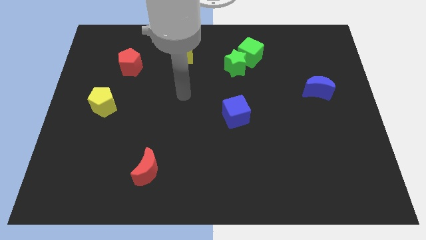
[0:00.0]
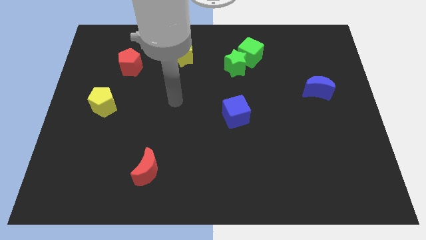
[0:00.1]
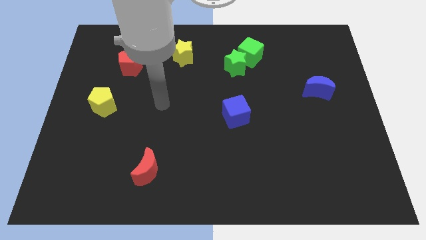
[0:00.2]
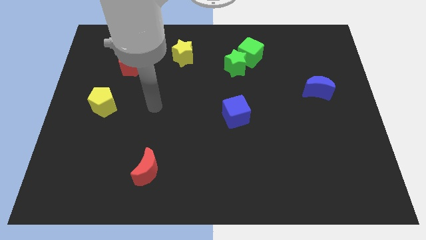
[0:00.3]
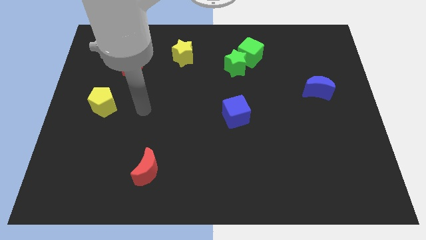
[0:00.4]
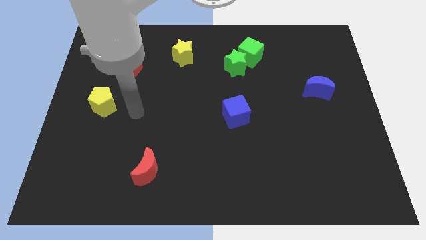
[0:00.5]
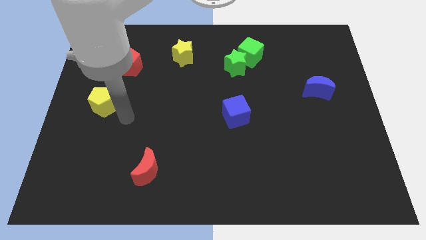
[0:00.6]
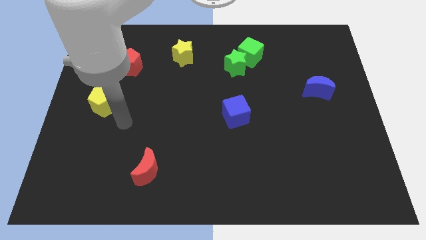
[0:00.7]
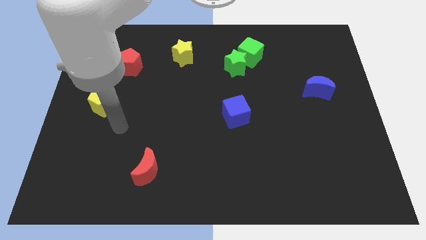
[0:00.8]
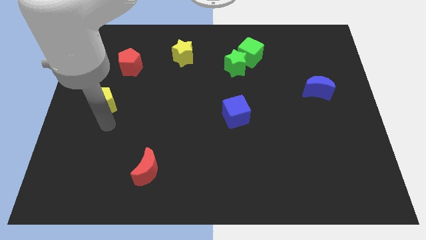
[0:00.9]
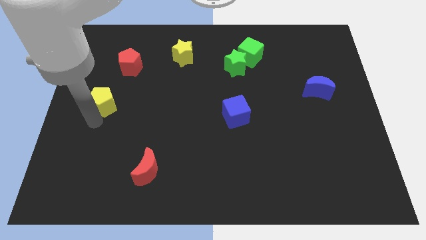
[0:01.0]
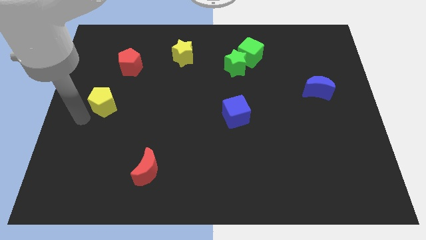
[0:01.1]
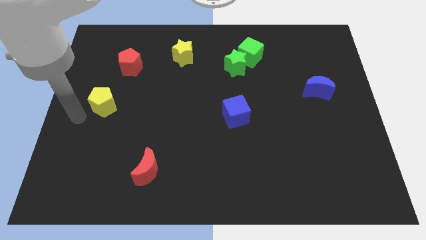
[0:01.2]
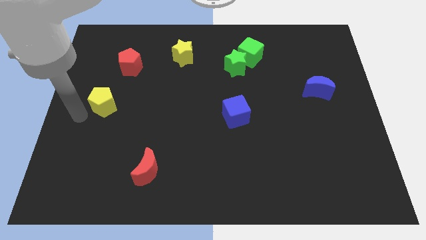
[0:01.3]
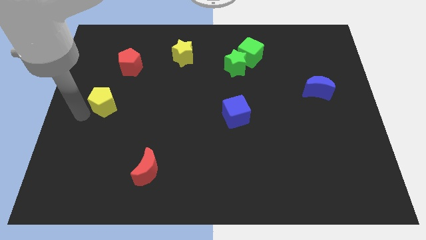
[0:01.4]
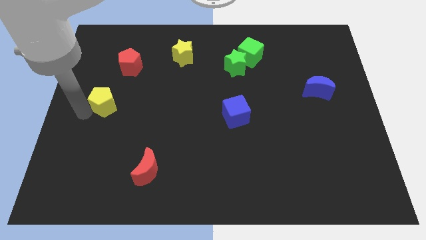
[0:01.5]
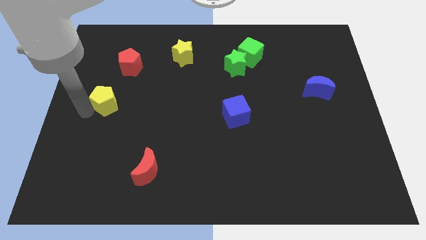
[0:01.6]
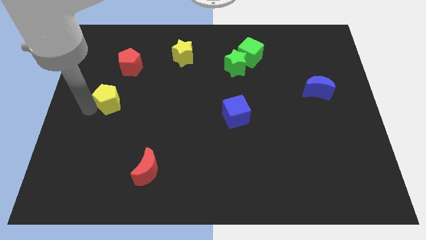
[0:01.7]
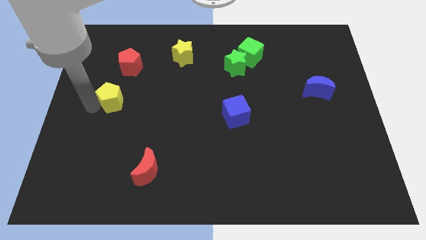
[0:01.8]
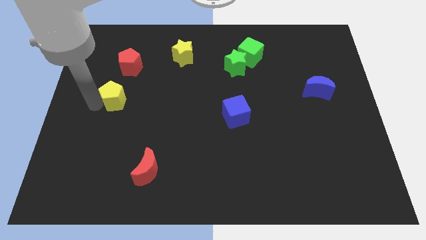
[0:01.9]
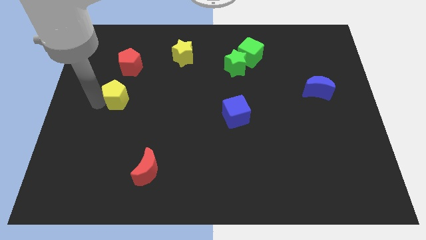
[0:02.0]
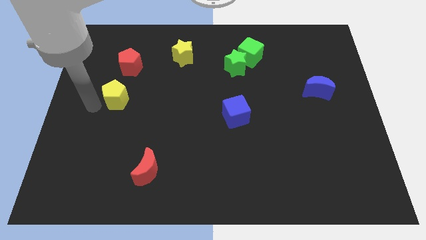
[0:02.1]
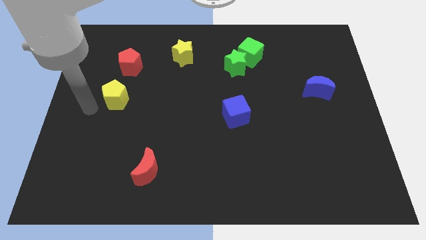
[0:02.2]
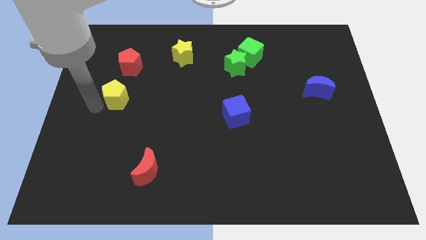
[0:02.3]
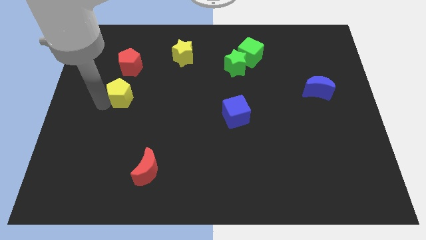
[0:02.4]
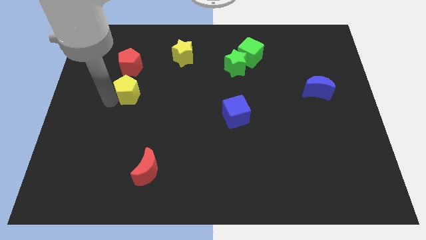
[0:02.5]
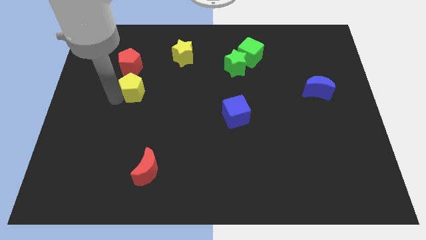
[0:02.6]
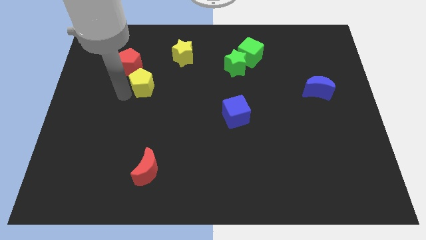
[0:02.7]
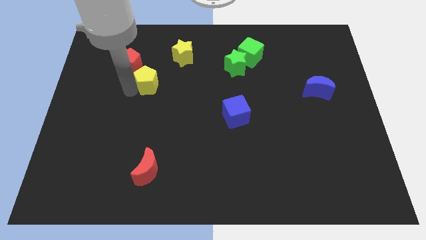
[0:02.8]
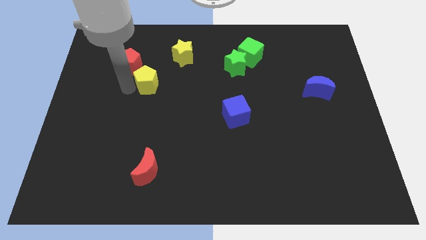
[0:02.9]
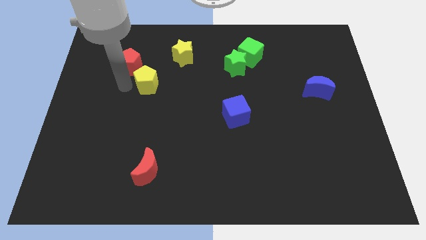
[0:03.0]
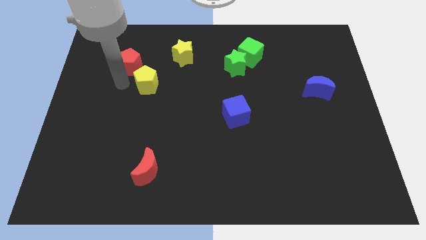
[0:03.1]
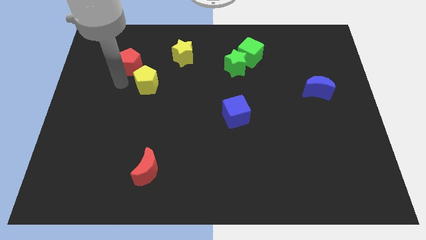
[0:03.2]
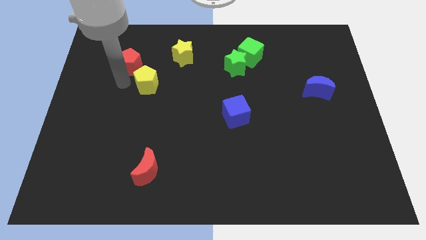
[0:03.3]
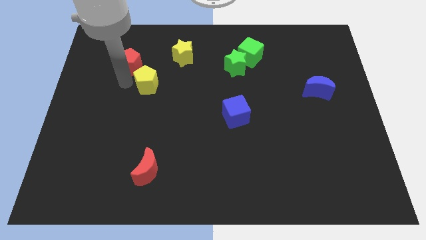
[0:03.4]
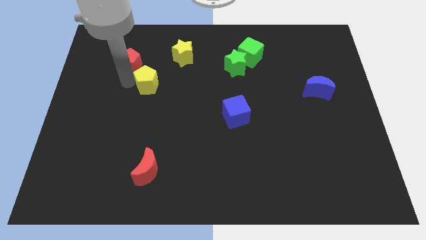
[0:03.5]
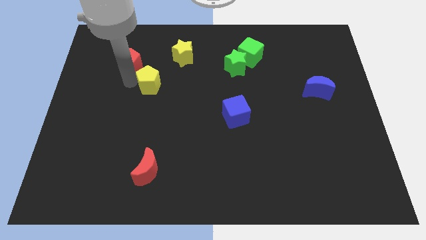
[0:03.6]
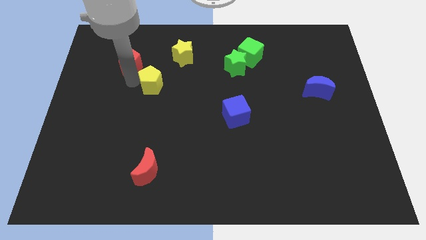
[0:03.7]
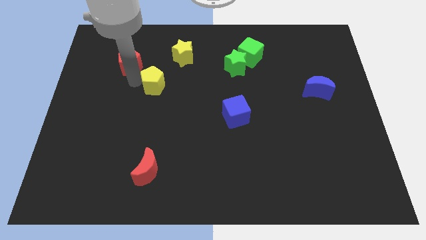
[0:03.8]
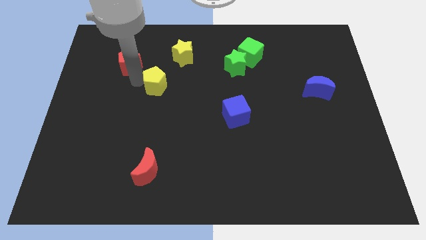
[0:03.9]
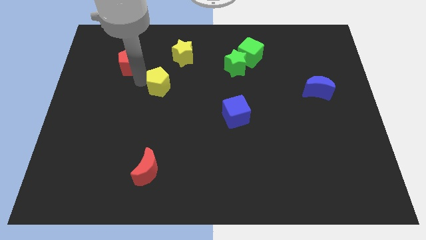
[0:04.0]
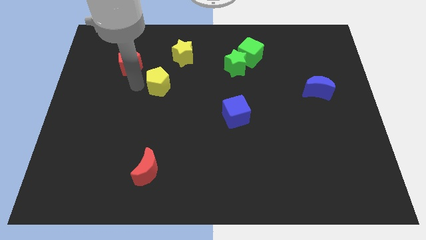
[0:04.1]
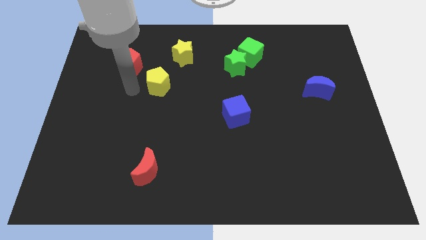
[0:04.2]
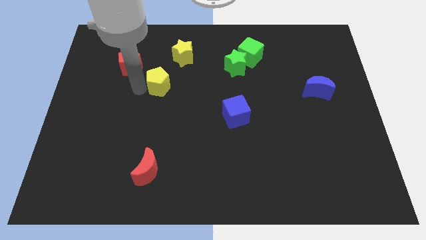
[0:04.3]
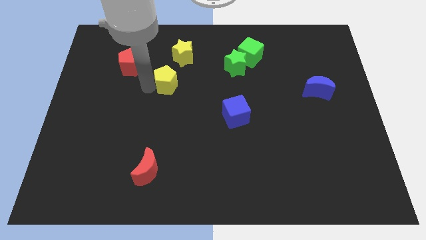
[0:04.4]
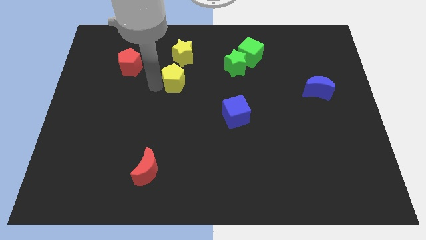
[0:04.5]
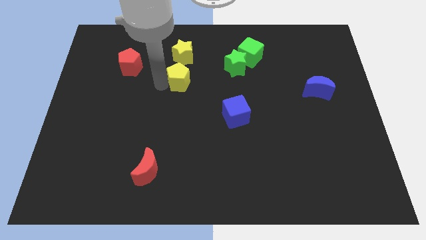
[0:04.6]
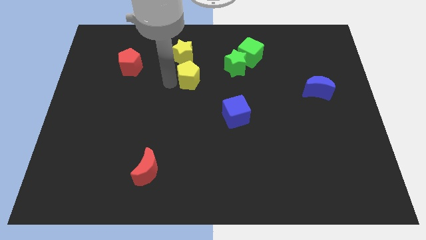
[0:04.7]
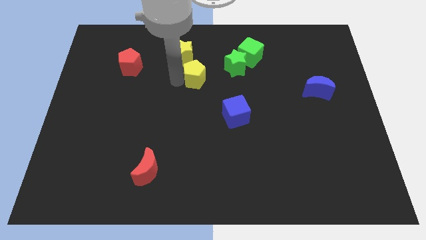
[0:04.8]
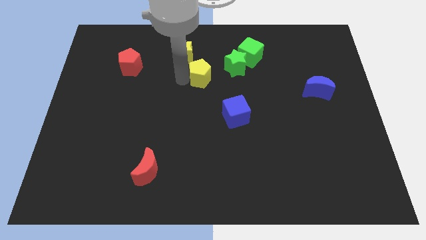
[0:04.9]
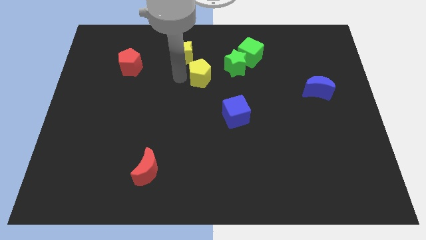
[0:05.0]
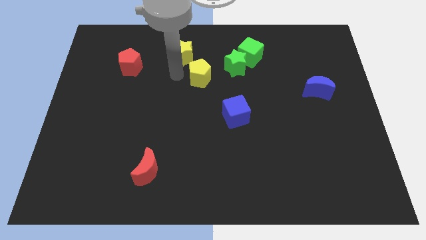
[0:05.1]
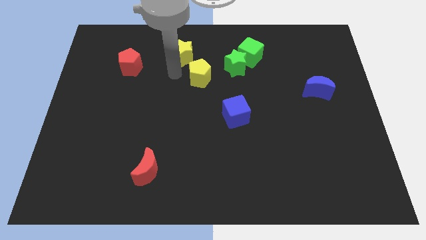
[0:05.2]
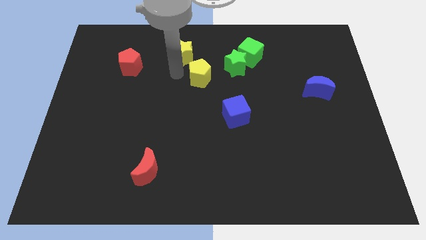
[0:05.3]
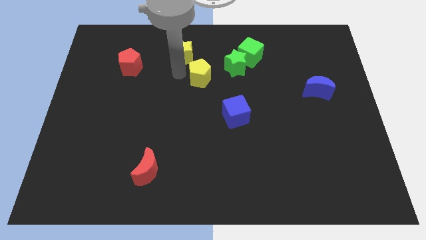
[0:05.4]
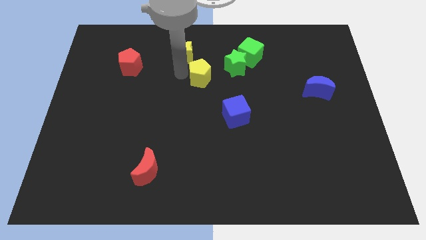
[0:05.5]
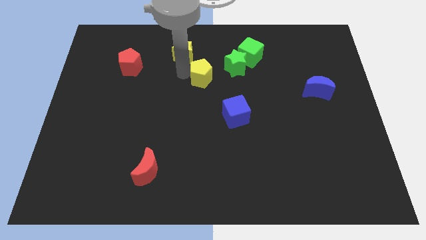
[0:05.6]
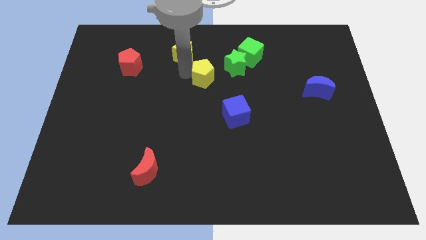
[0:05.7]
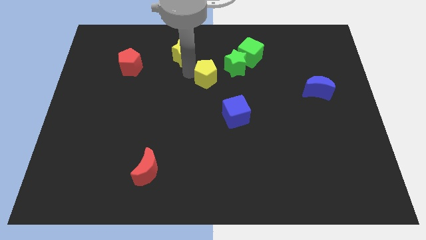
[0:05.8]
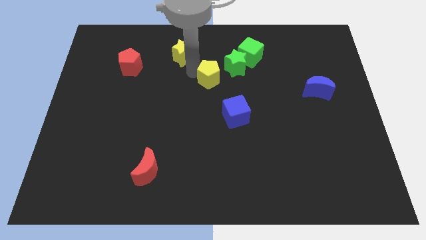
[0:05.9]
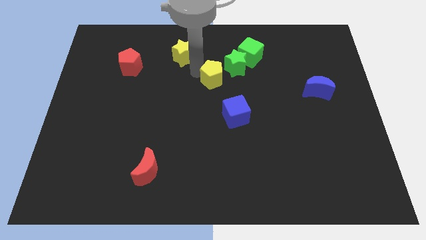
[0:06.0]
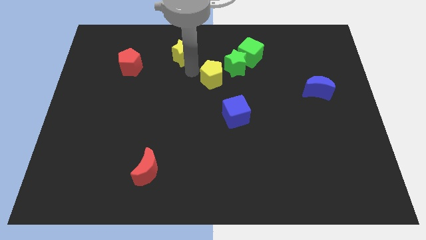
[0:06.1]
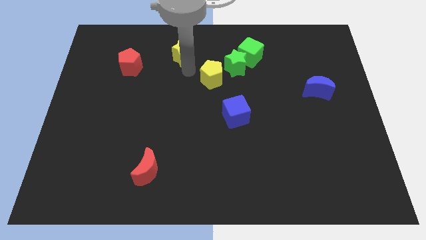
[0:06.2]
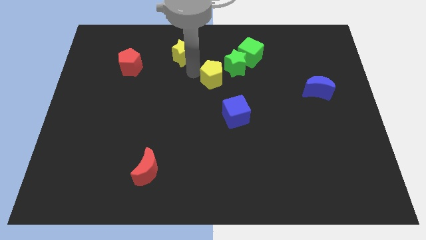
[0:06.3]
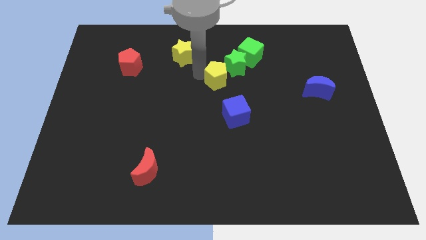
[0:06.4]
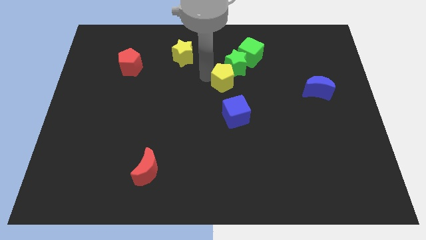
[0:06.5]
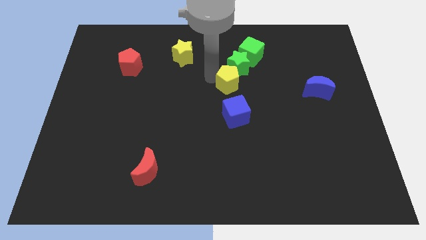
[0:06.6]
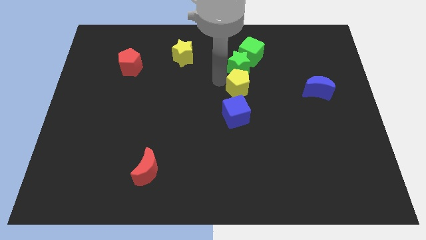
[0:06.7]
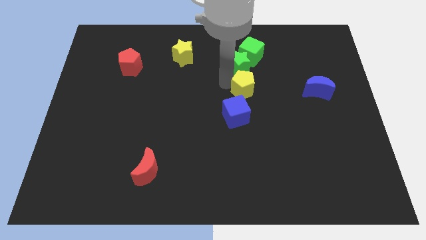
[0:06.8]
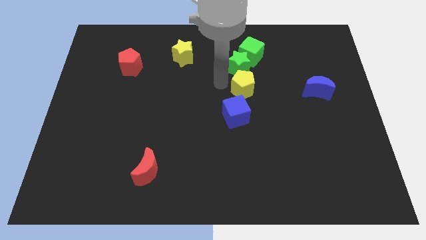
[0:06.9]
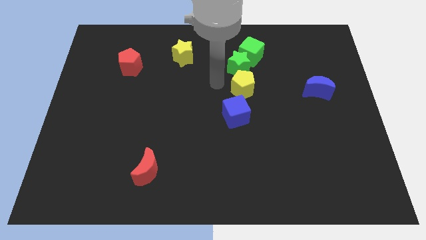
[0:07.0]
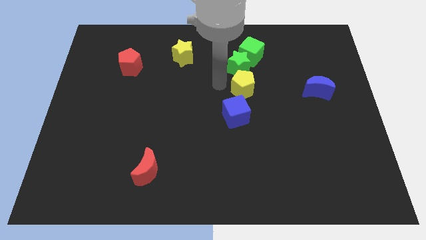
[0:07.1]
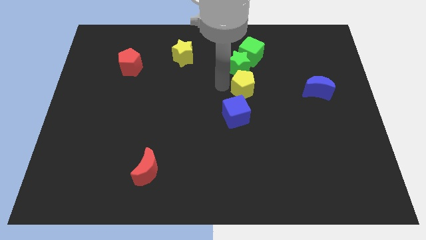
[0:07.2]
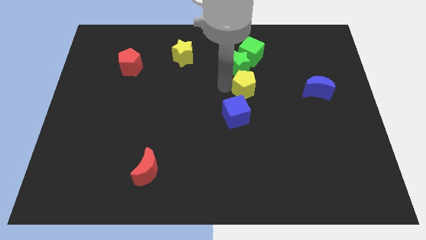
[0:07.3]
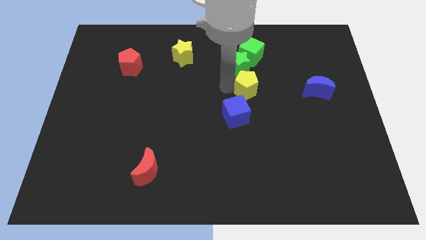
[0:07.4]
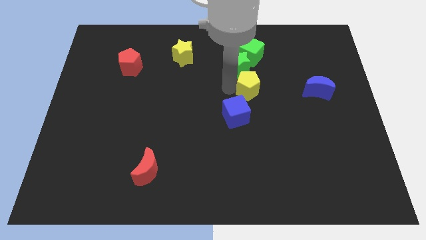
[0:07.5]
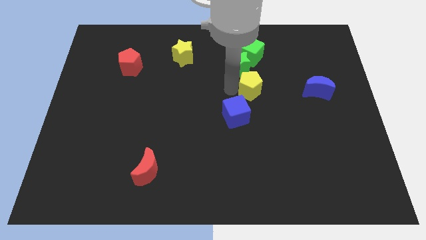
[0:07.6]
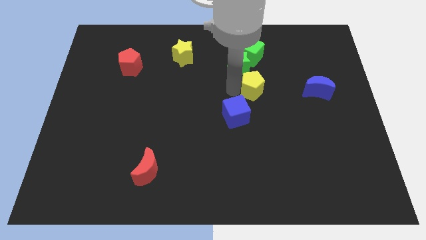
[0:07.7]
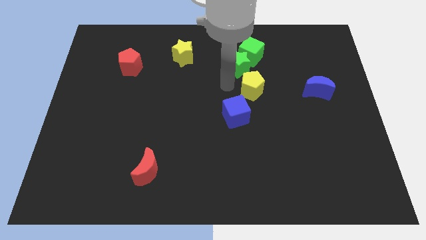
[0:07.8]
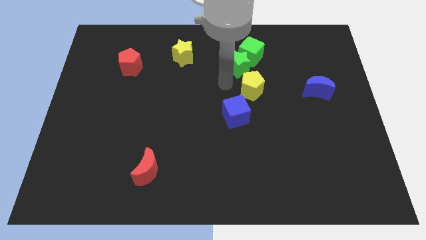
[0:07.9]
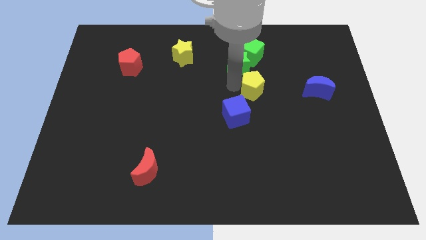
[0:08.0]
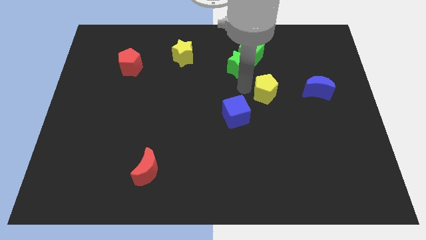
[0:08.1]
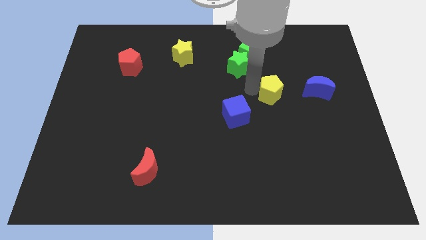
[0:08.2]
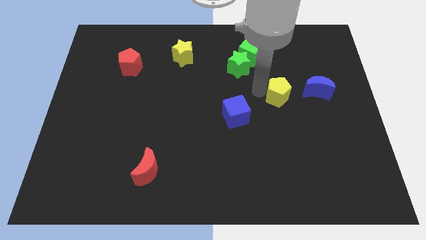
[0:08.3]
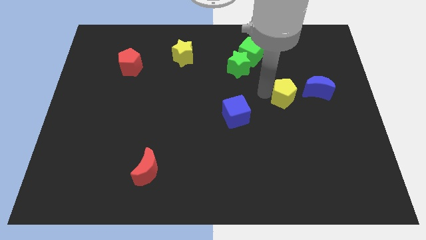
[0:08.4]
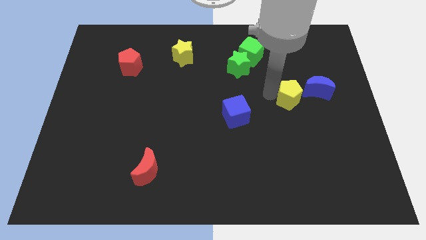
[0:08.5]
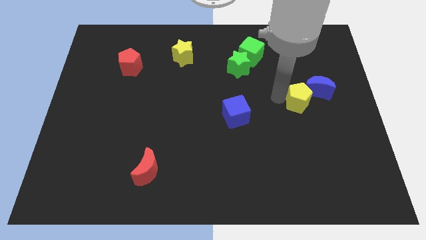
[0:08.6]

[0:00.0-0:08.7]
move the yellow pentagon to the blue moon
